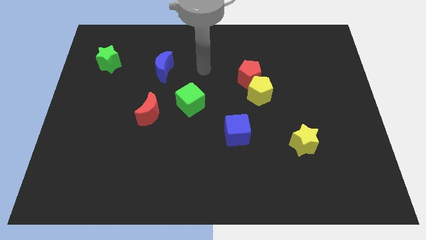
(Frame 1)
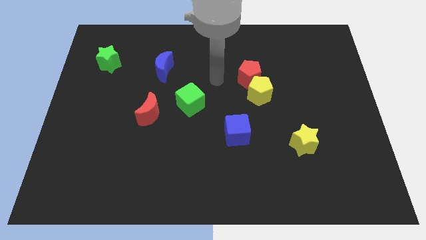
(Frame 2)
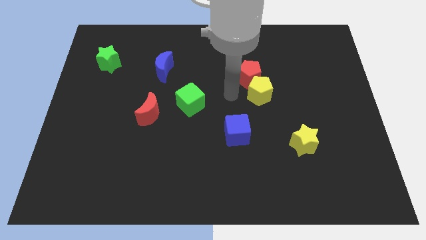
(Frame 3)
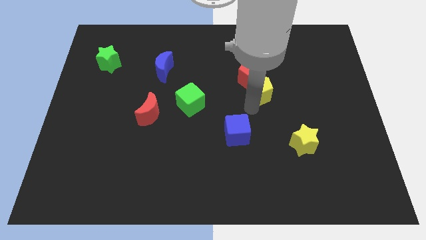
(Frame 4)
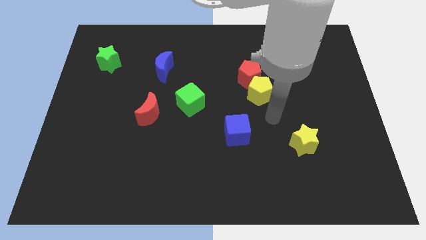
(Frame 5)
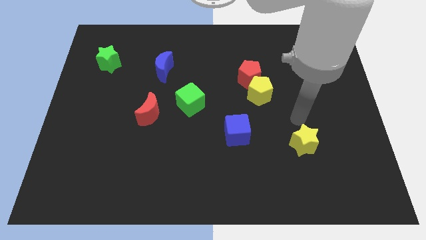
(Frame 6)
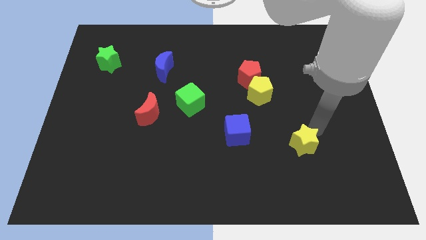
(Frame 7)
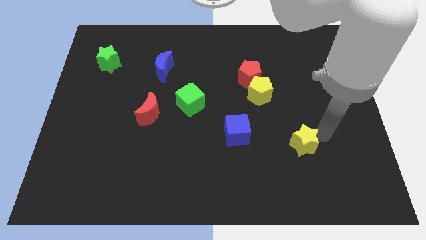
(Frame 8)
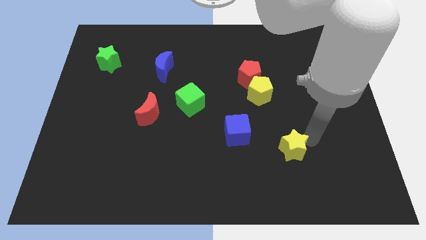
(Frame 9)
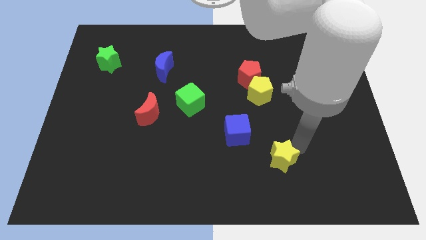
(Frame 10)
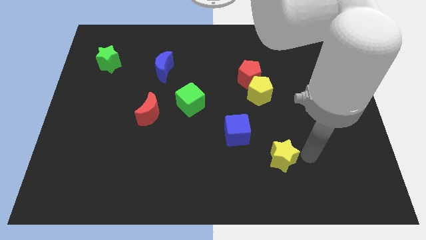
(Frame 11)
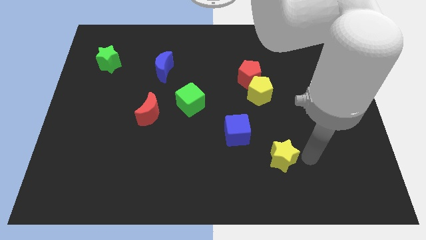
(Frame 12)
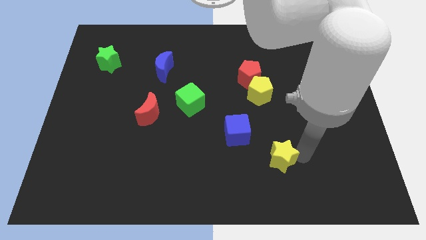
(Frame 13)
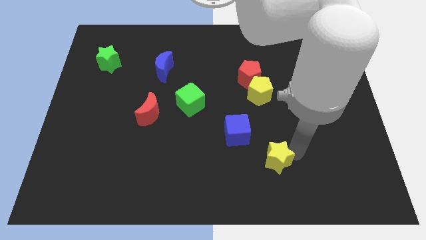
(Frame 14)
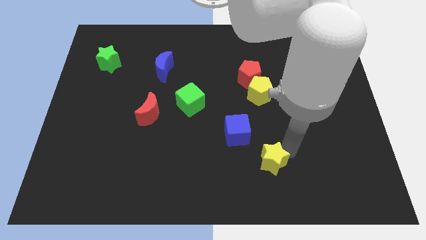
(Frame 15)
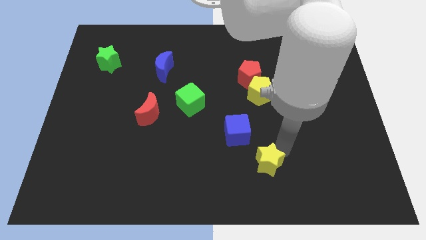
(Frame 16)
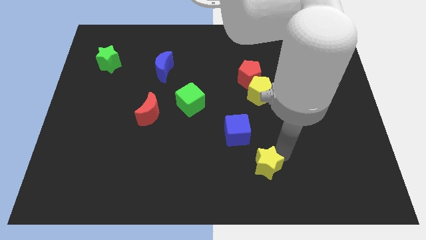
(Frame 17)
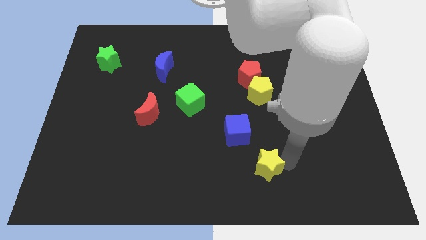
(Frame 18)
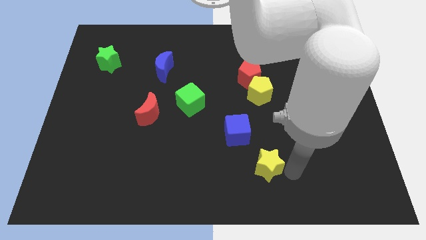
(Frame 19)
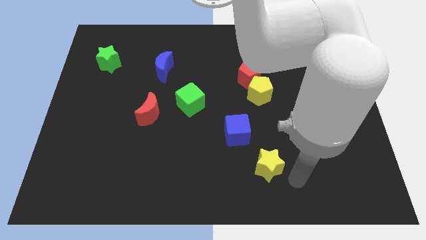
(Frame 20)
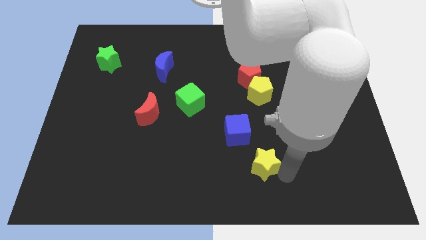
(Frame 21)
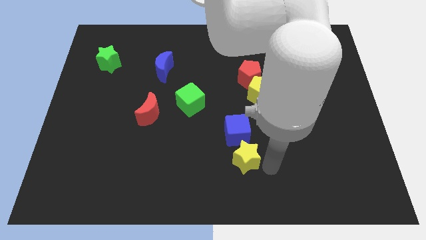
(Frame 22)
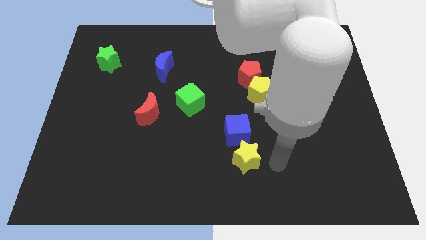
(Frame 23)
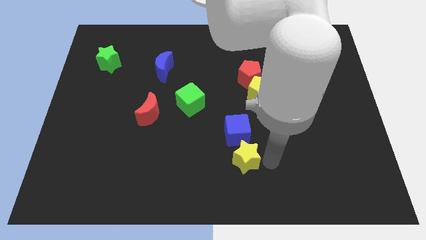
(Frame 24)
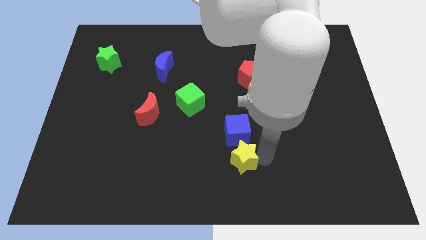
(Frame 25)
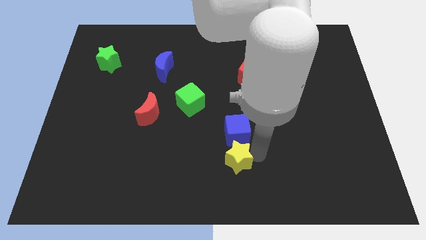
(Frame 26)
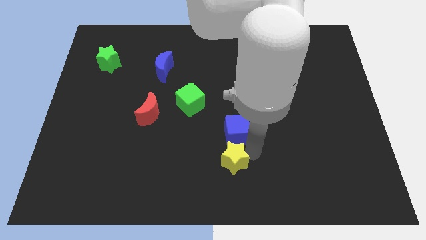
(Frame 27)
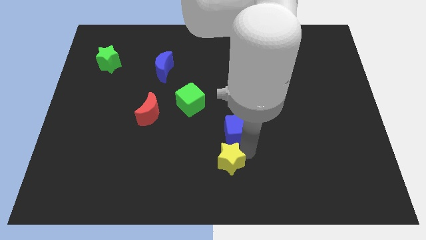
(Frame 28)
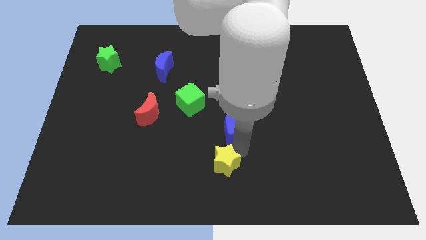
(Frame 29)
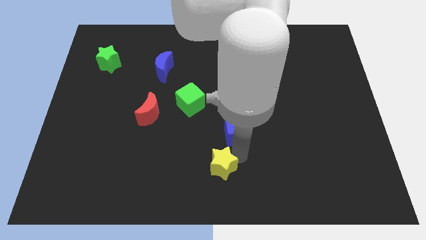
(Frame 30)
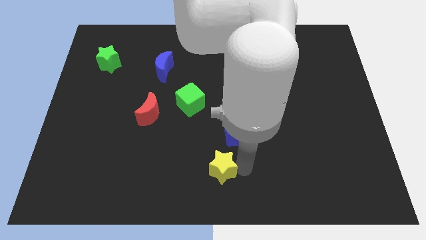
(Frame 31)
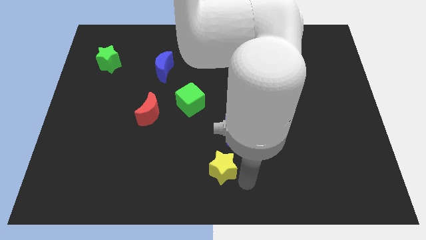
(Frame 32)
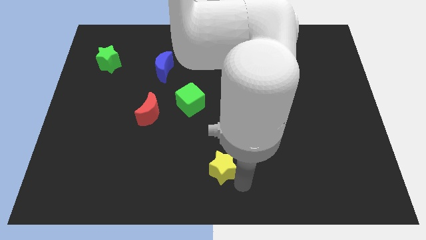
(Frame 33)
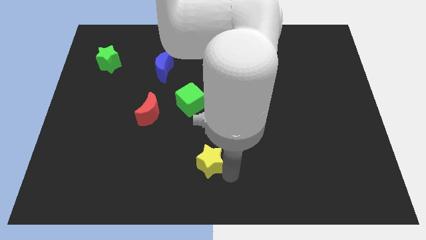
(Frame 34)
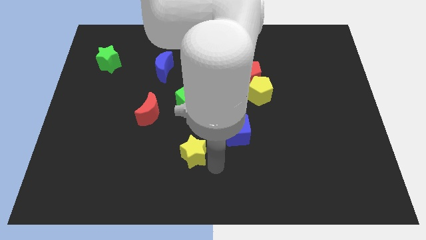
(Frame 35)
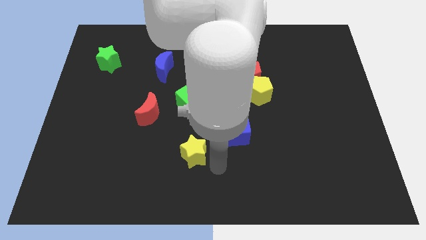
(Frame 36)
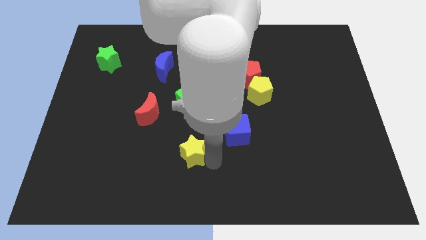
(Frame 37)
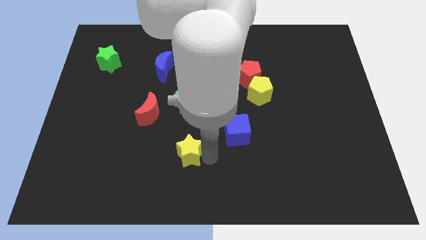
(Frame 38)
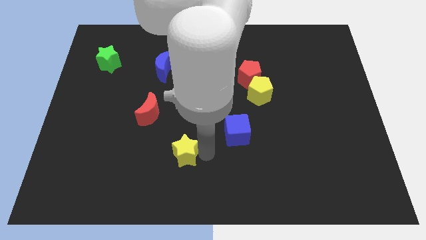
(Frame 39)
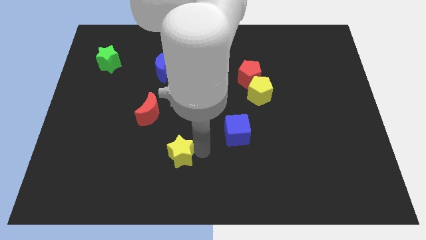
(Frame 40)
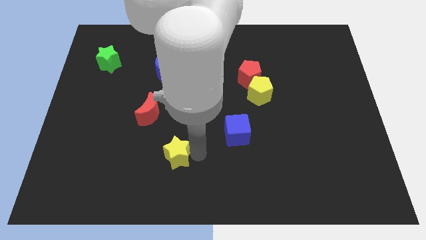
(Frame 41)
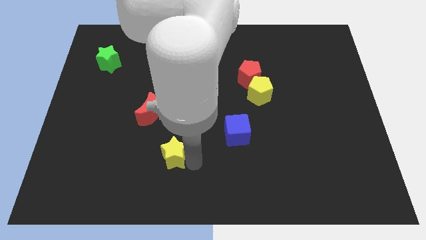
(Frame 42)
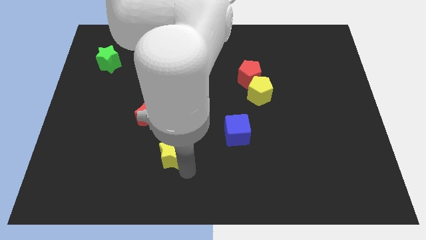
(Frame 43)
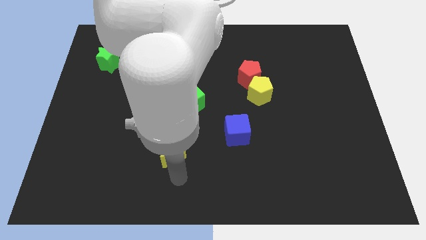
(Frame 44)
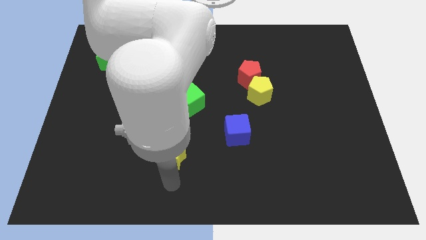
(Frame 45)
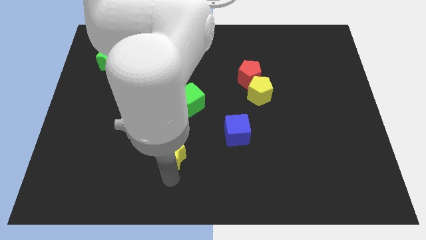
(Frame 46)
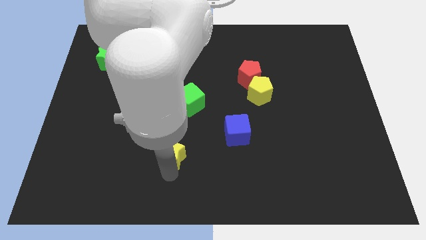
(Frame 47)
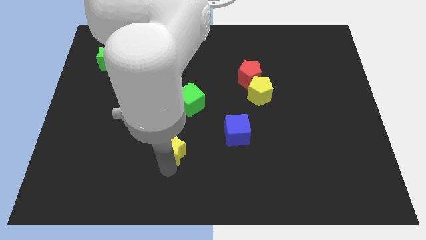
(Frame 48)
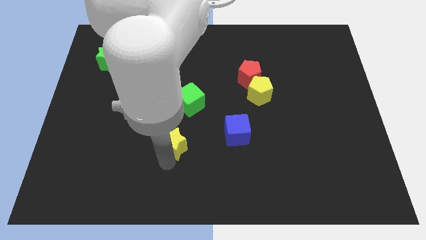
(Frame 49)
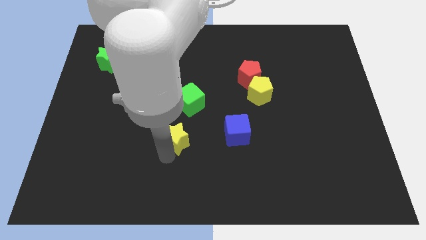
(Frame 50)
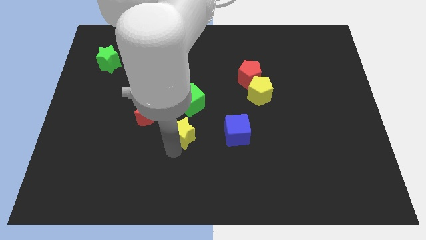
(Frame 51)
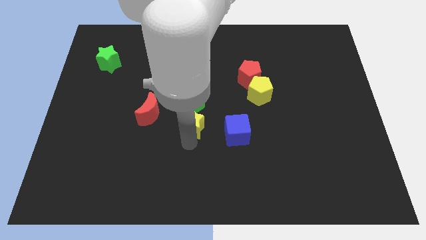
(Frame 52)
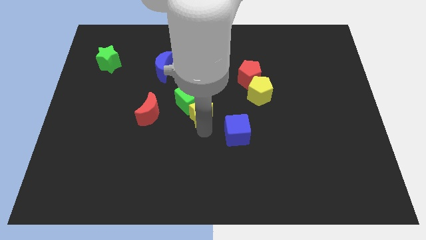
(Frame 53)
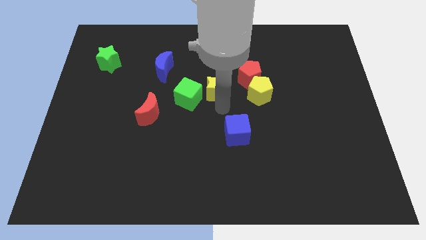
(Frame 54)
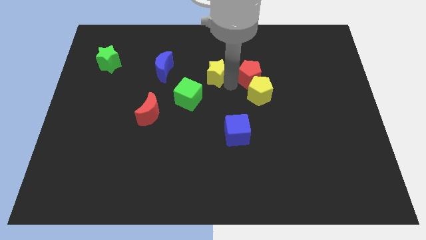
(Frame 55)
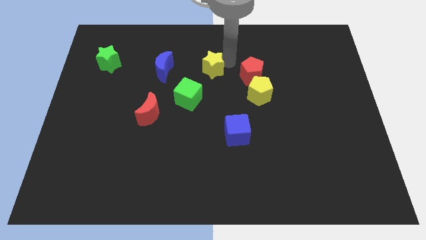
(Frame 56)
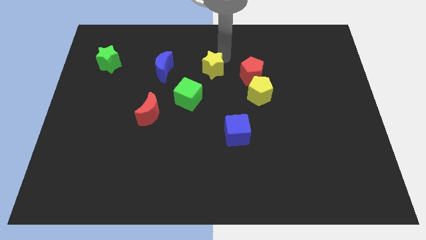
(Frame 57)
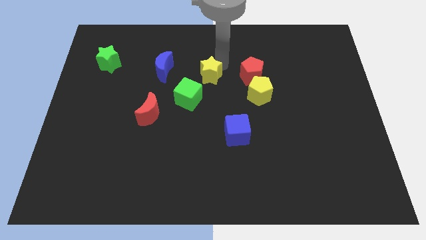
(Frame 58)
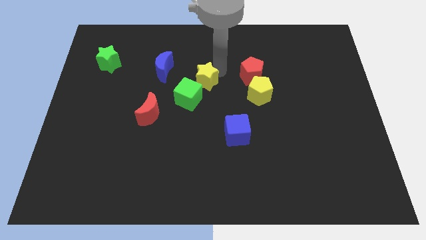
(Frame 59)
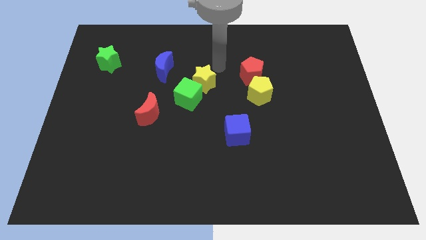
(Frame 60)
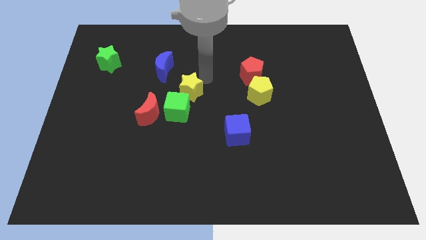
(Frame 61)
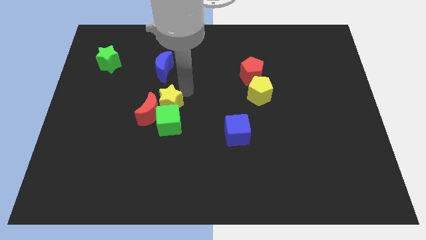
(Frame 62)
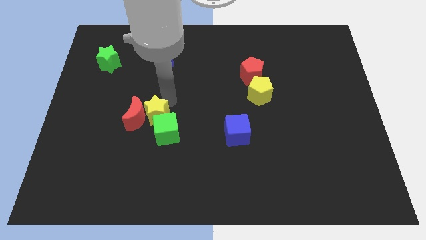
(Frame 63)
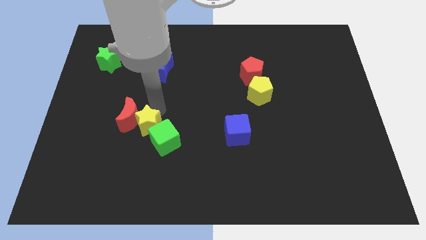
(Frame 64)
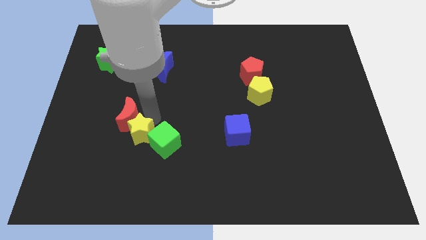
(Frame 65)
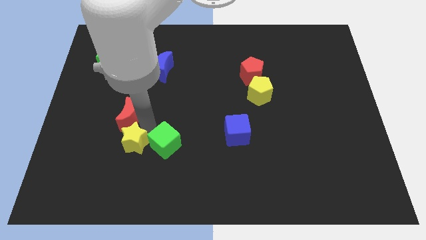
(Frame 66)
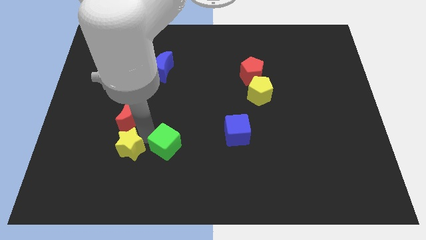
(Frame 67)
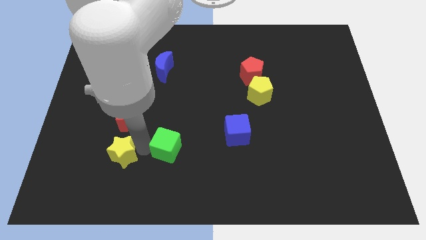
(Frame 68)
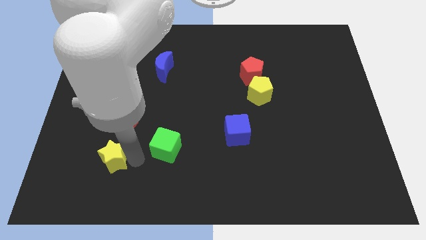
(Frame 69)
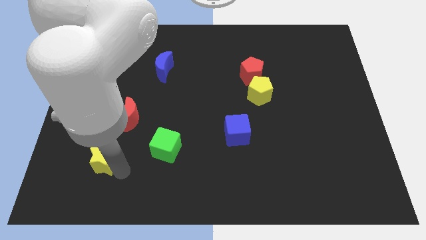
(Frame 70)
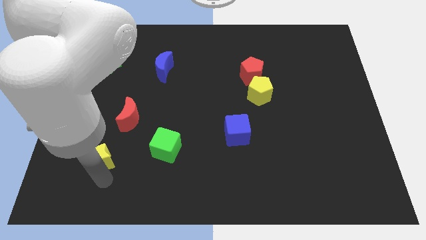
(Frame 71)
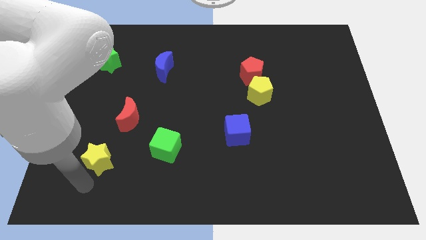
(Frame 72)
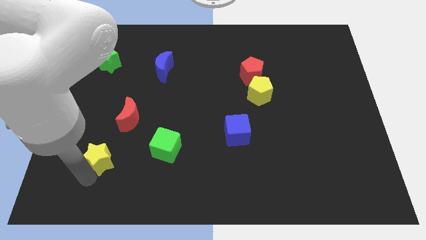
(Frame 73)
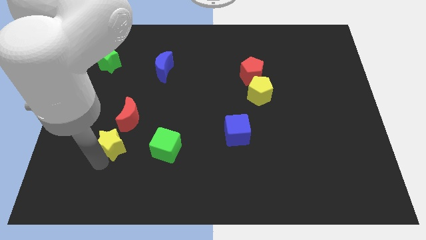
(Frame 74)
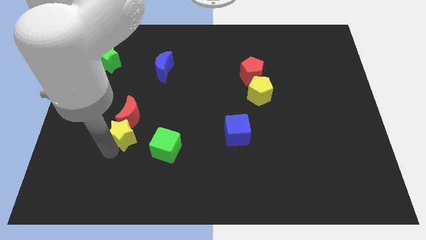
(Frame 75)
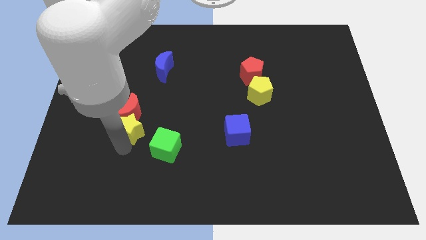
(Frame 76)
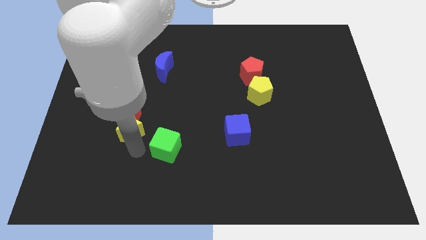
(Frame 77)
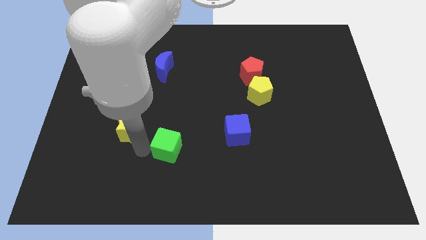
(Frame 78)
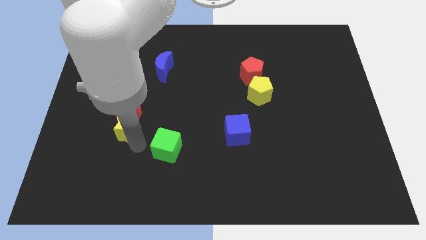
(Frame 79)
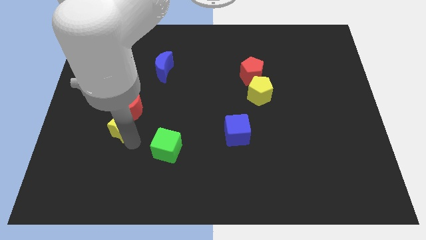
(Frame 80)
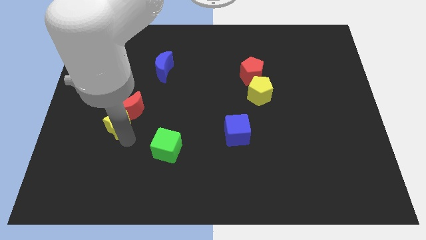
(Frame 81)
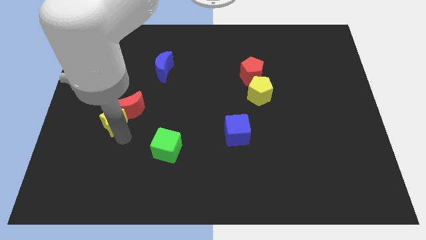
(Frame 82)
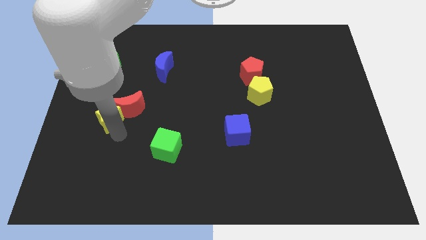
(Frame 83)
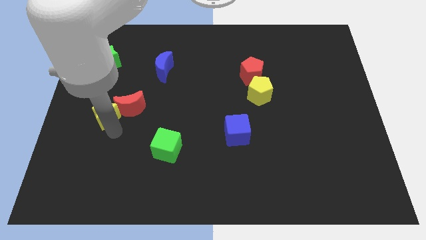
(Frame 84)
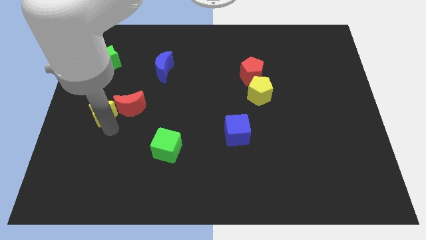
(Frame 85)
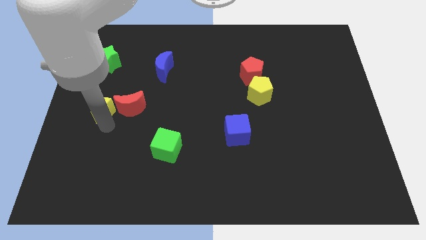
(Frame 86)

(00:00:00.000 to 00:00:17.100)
push the yellow star to the bottom side of the green star
